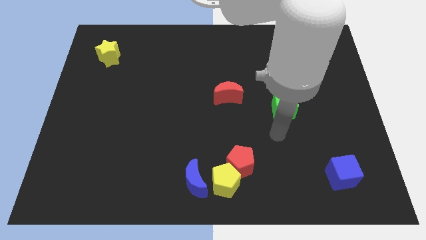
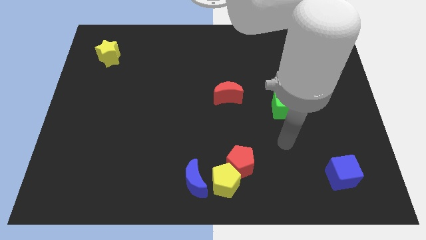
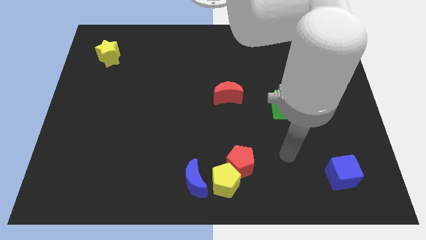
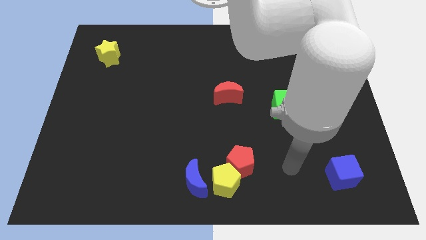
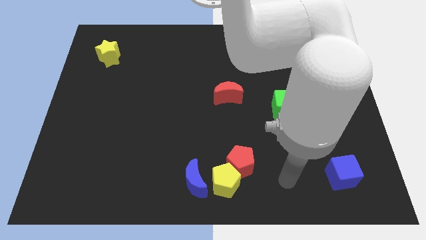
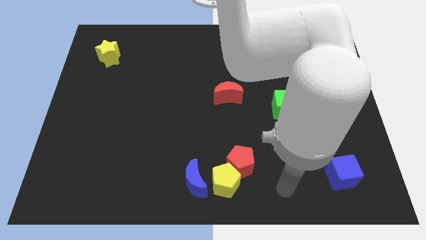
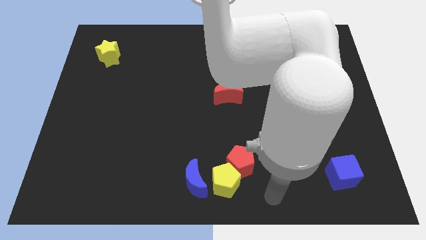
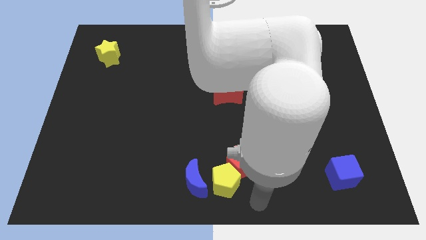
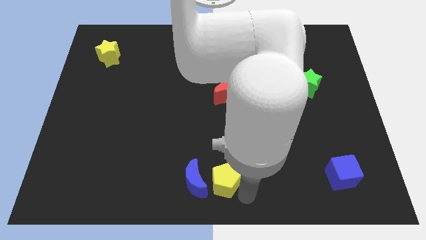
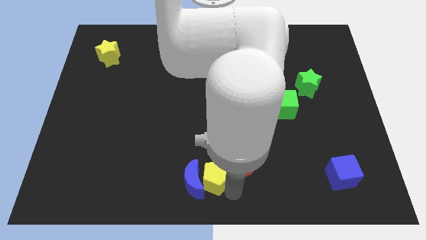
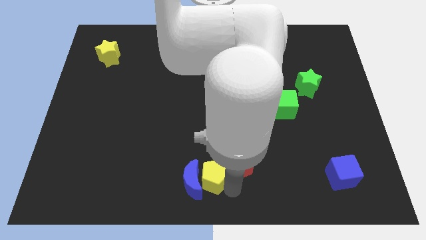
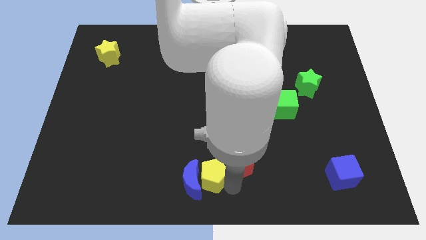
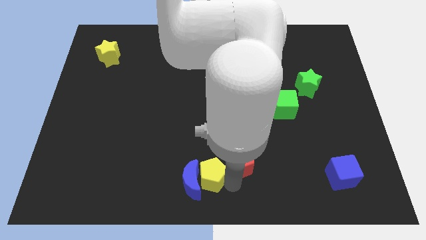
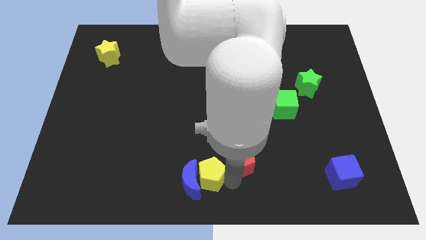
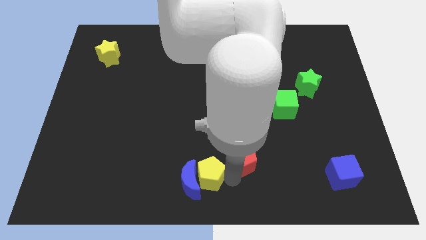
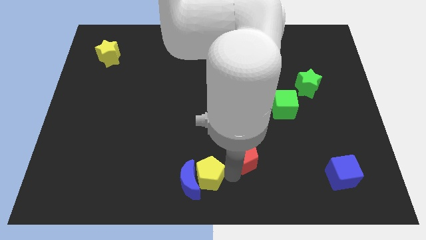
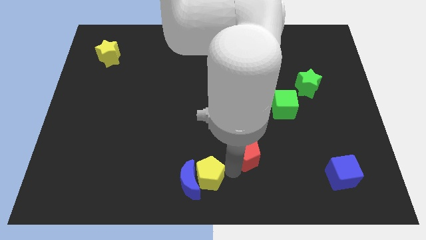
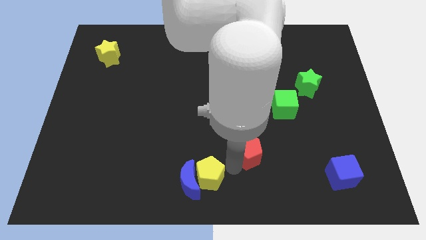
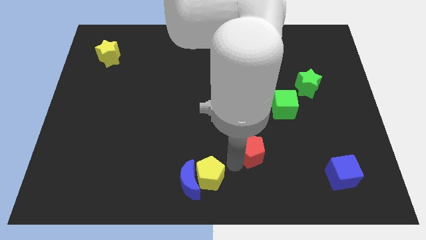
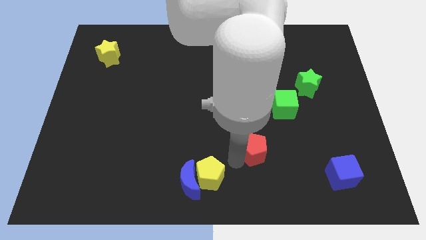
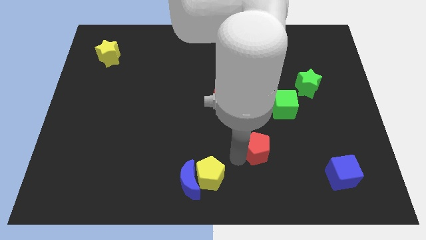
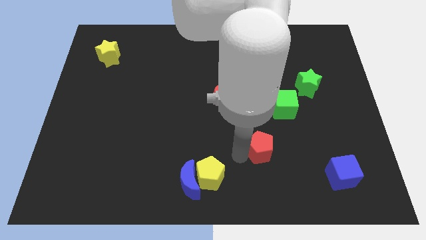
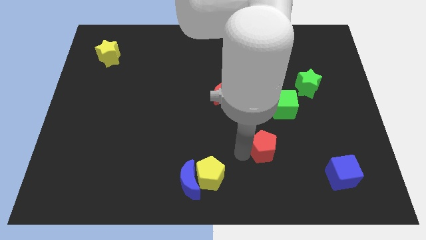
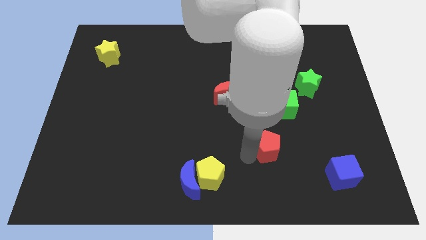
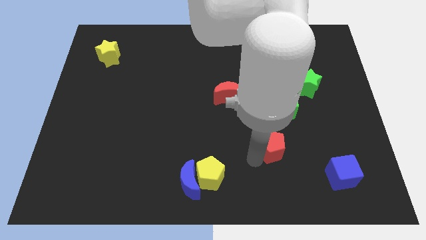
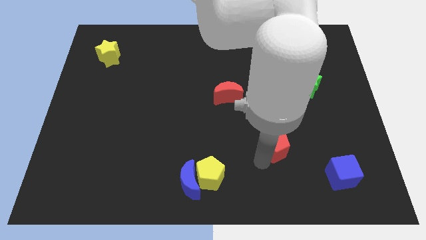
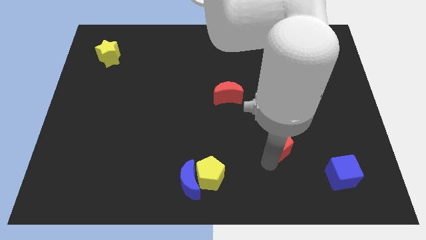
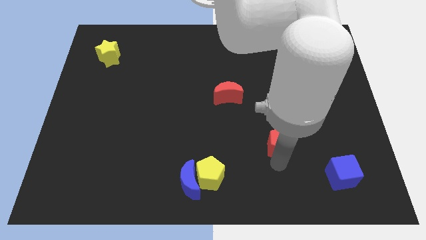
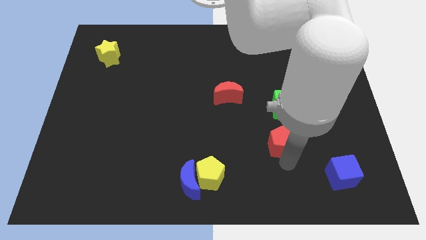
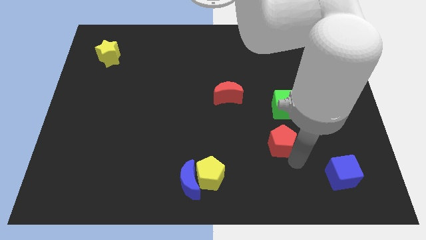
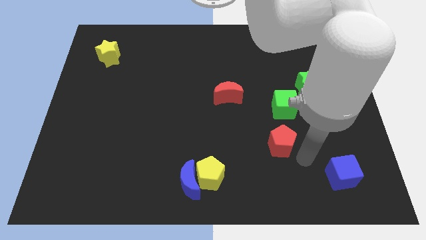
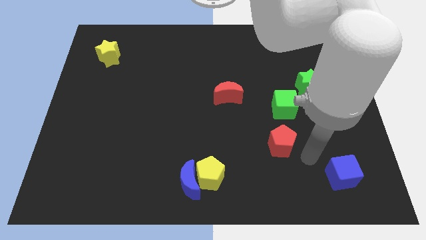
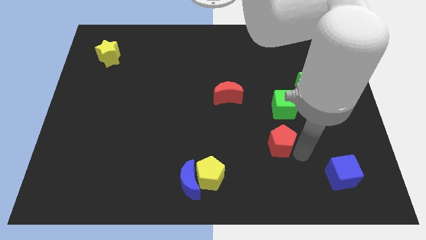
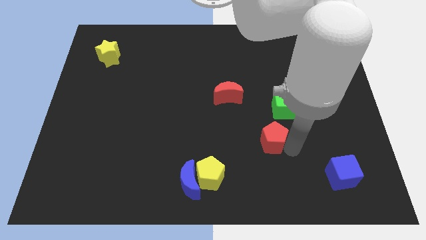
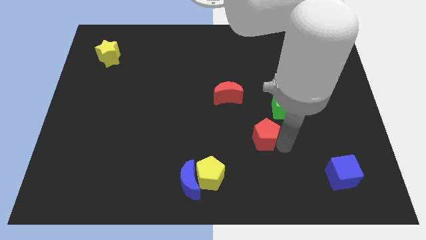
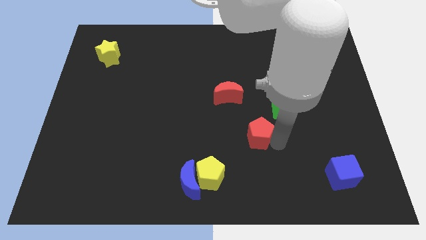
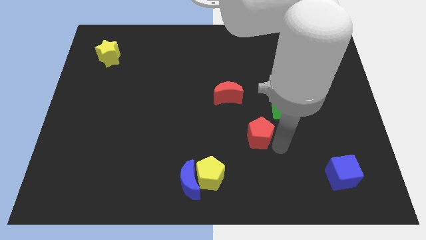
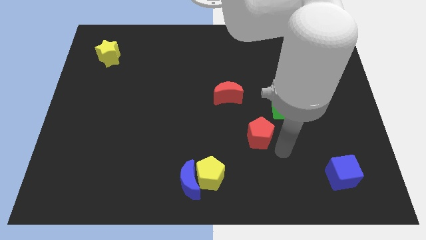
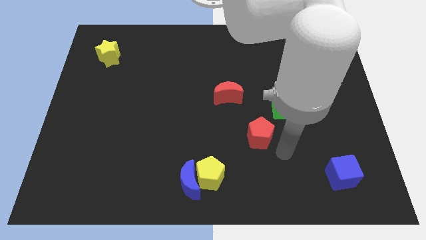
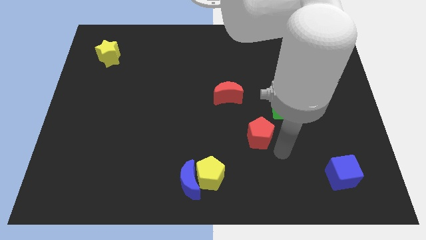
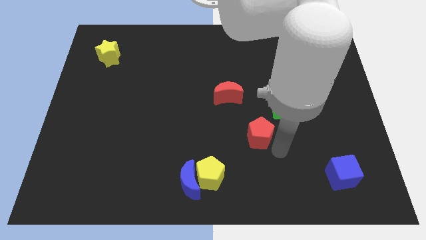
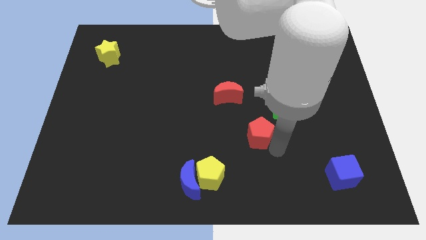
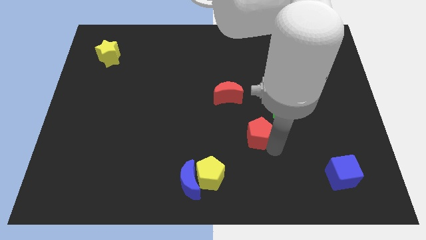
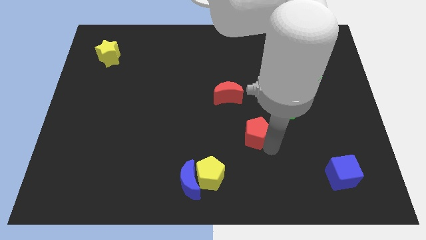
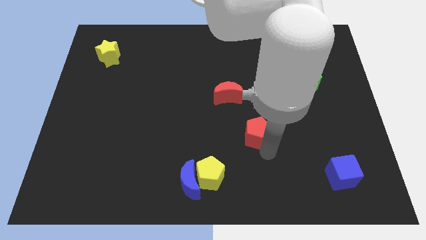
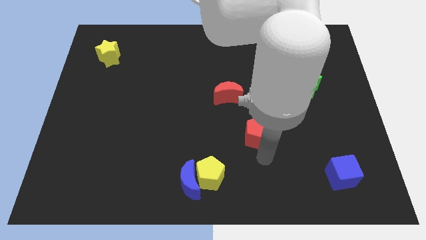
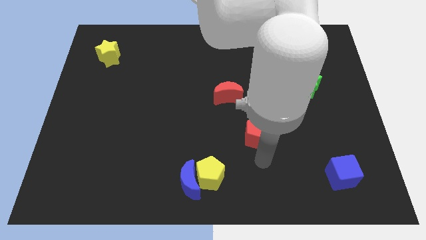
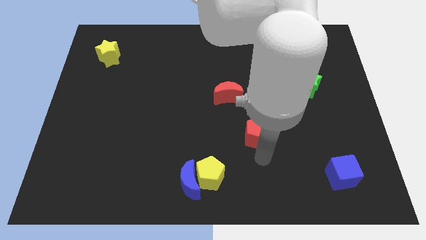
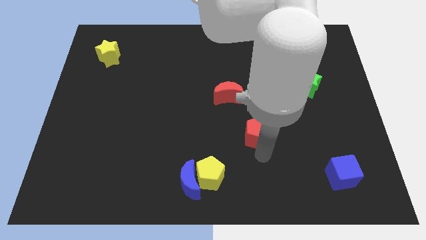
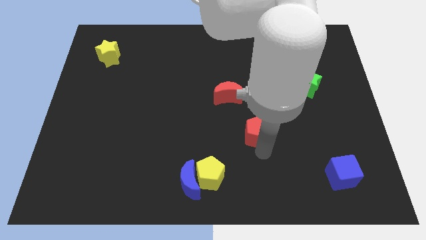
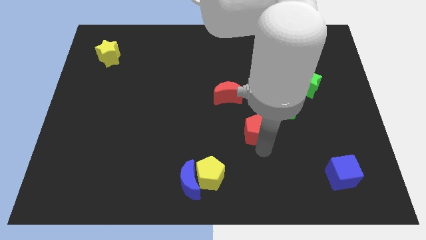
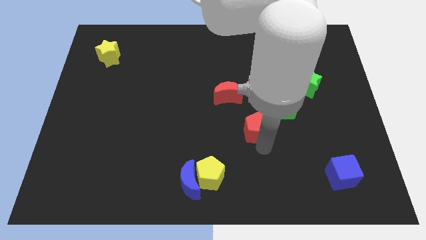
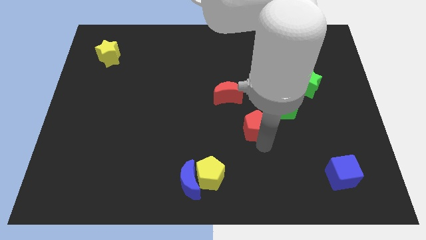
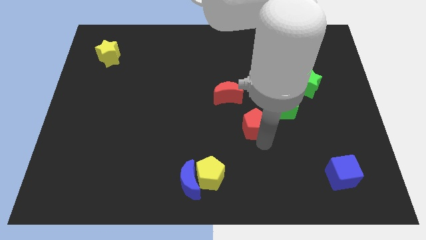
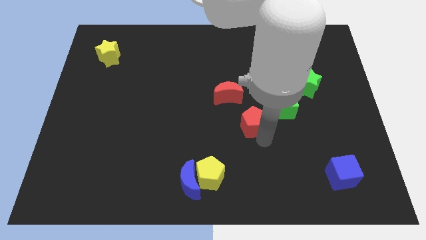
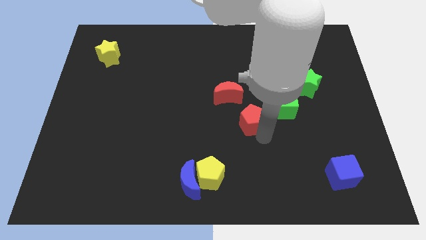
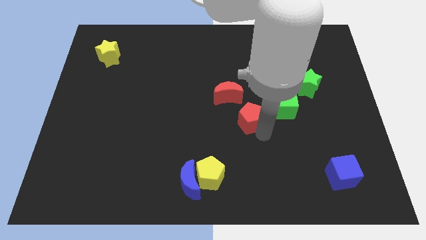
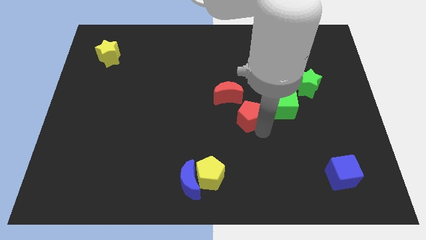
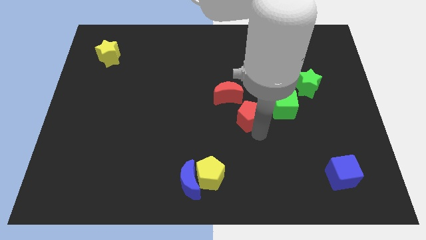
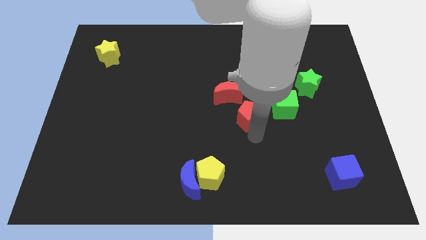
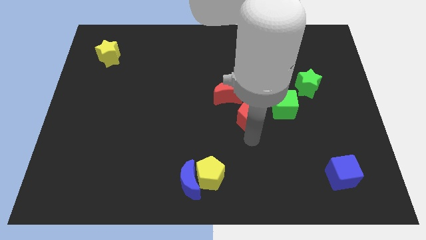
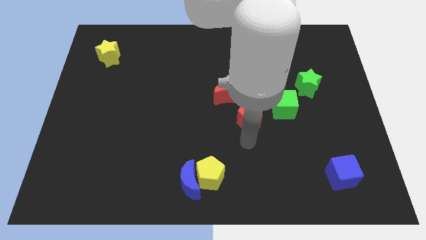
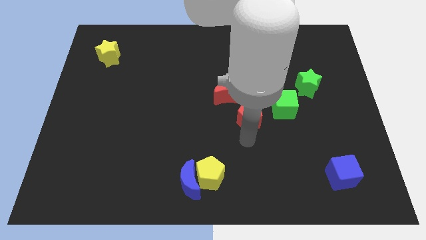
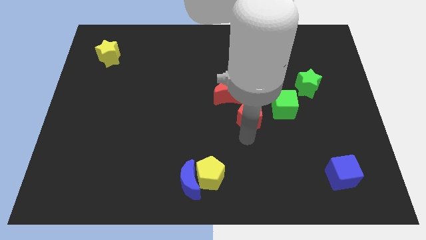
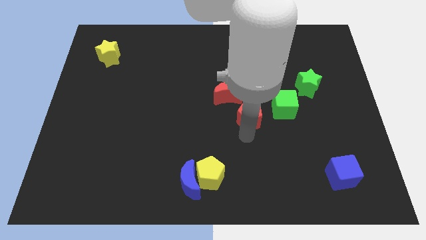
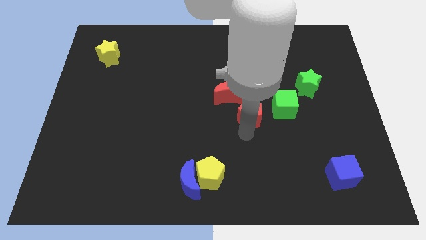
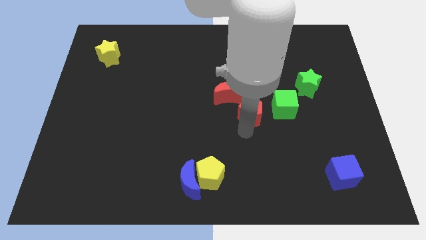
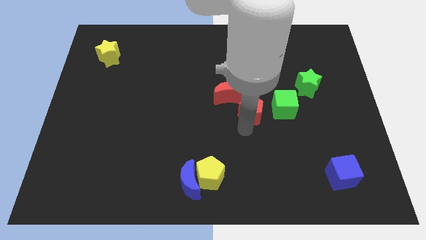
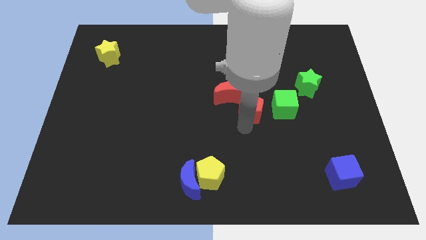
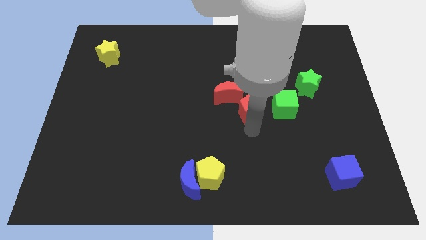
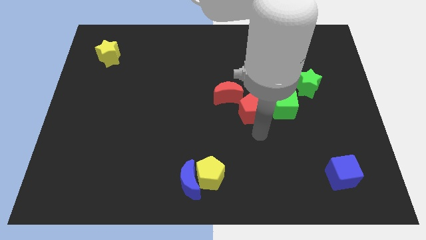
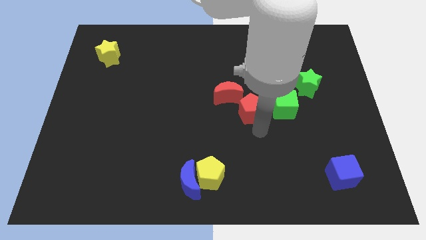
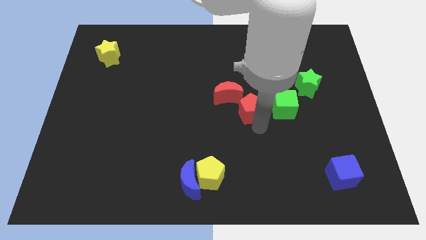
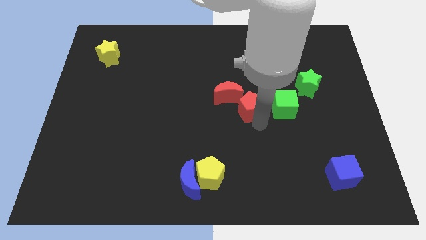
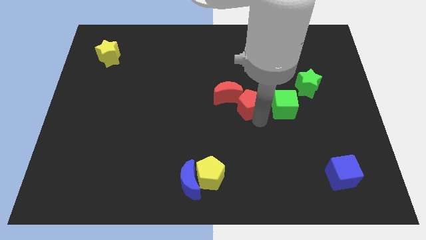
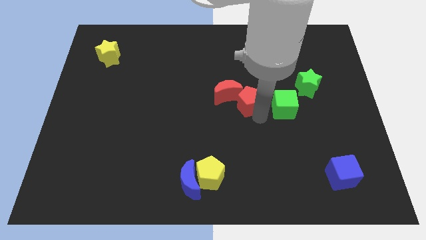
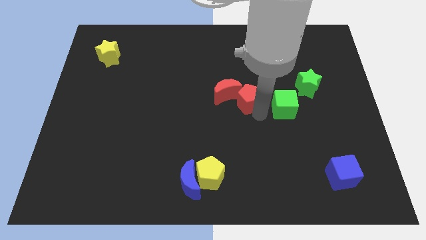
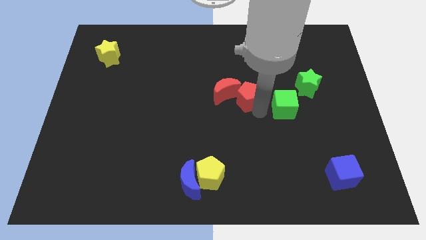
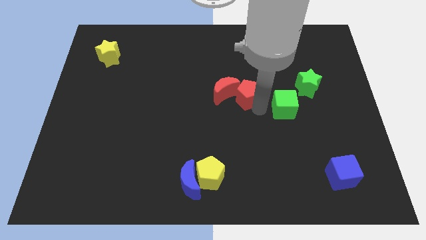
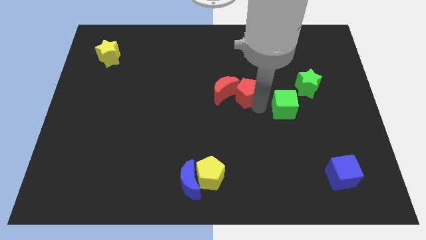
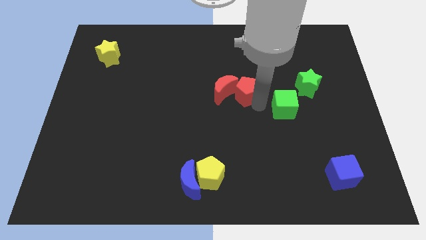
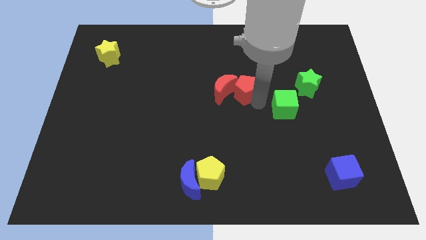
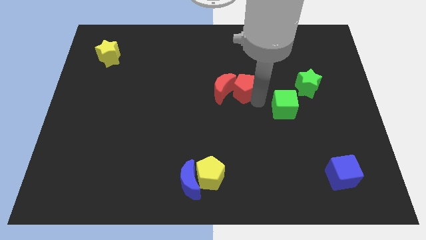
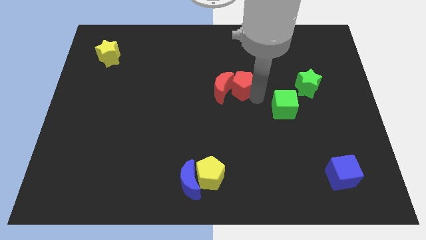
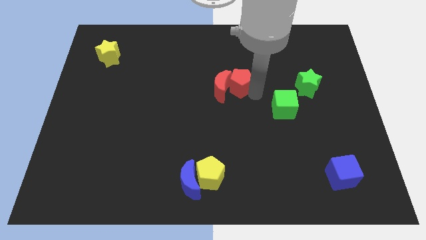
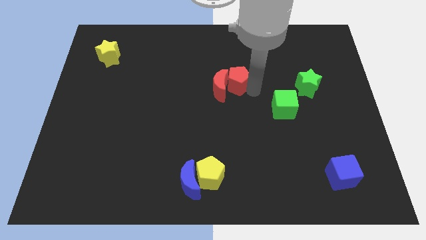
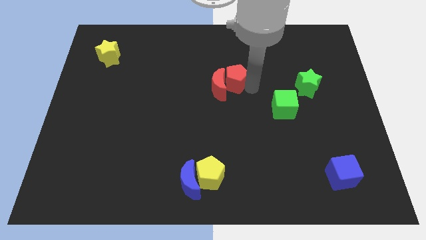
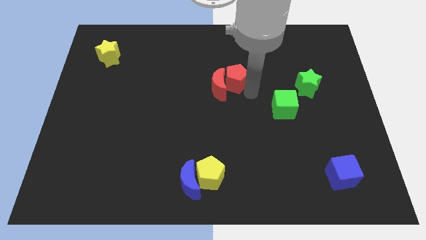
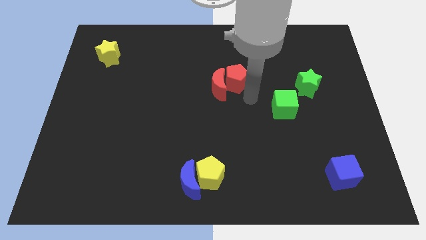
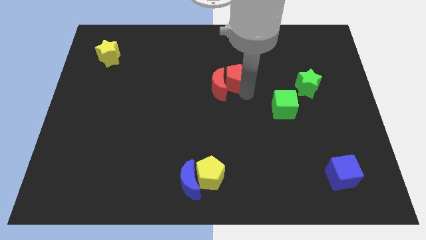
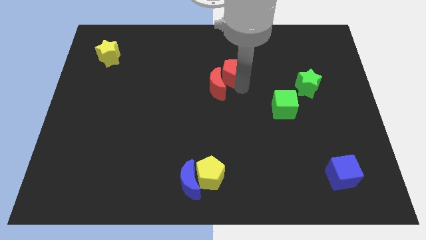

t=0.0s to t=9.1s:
move the red pentagon to the top side of the red moon
